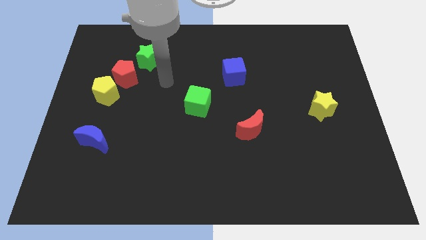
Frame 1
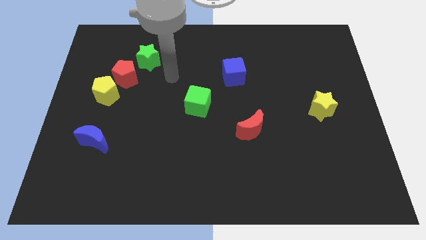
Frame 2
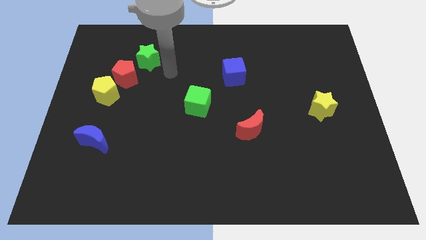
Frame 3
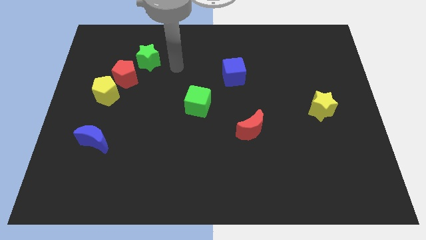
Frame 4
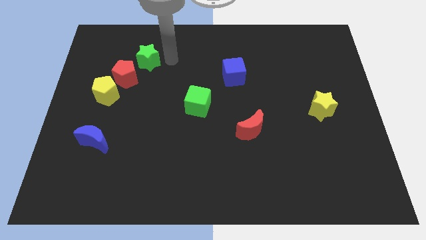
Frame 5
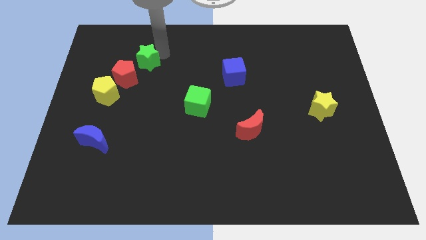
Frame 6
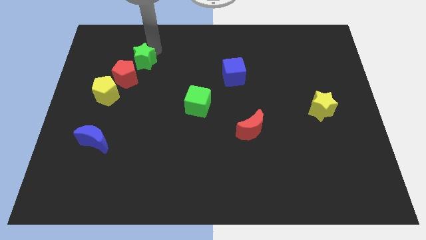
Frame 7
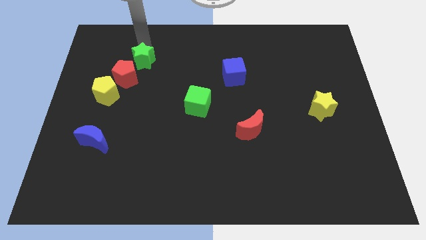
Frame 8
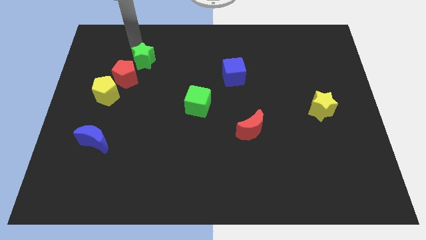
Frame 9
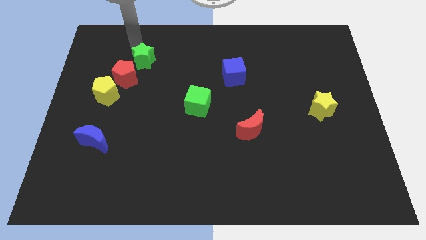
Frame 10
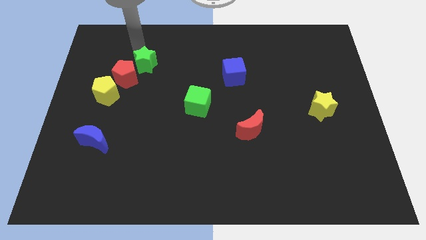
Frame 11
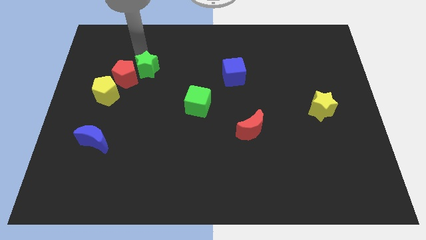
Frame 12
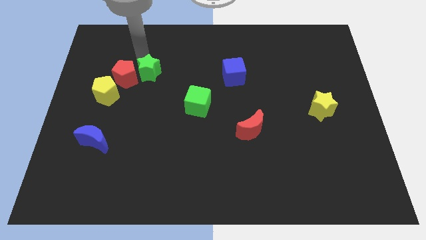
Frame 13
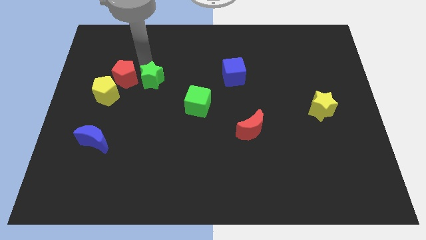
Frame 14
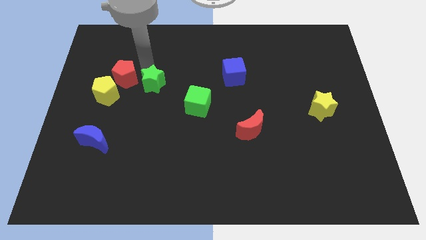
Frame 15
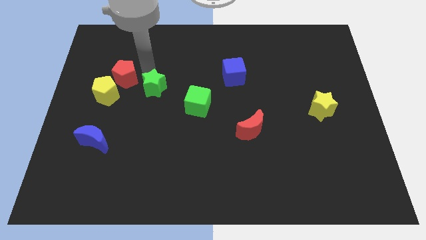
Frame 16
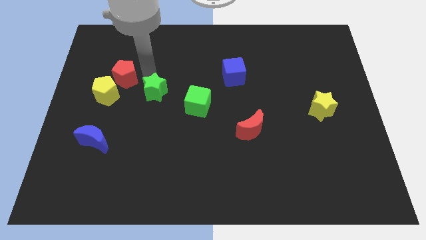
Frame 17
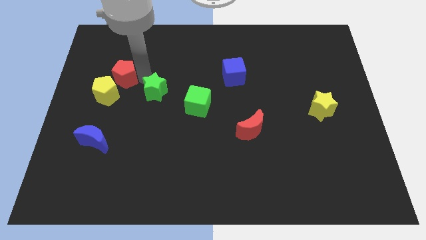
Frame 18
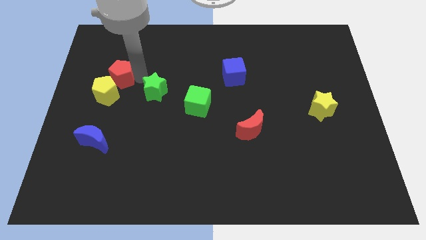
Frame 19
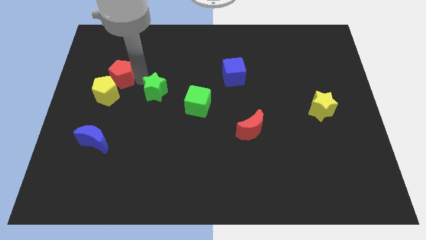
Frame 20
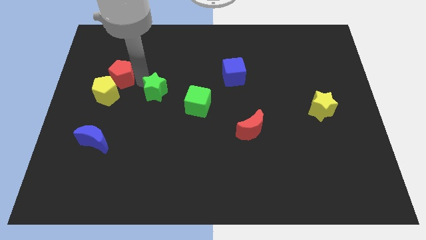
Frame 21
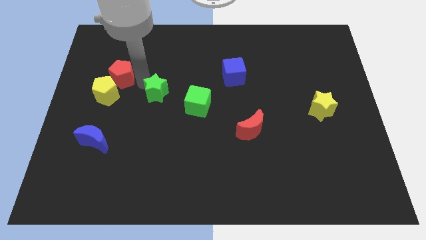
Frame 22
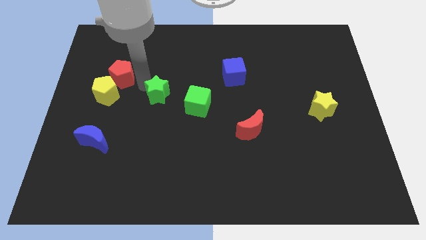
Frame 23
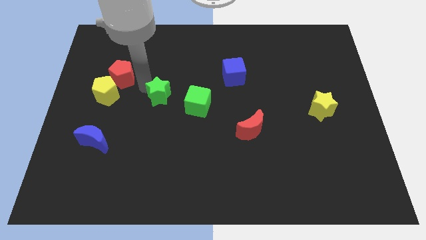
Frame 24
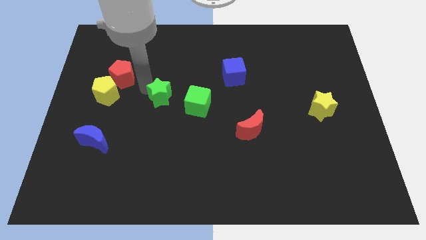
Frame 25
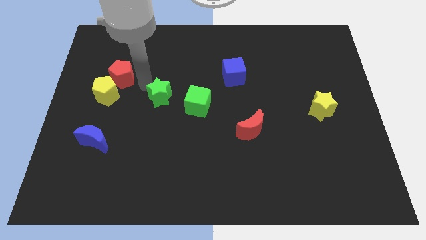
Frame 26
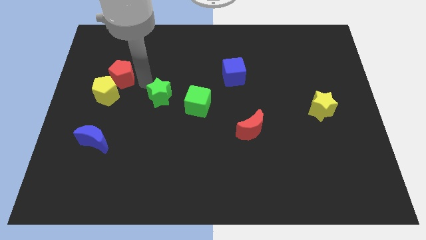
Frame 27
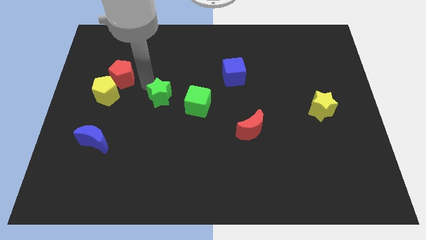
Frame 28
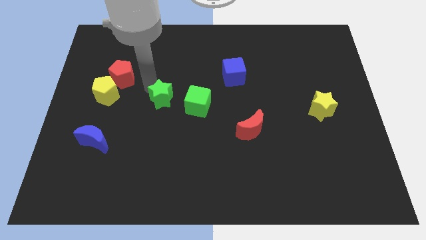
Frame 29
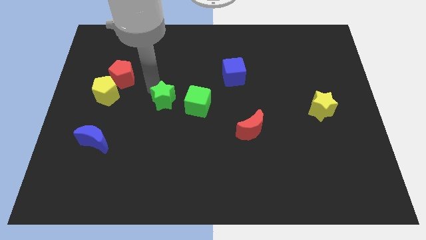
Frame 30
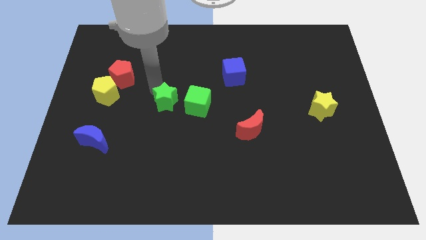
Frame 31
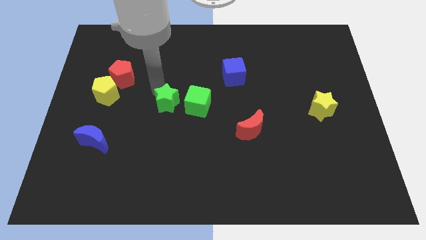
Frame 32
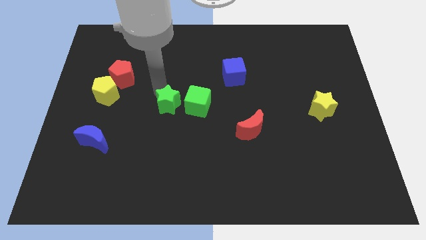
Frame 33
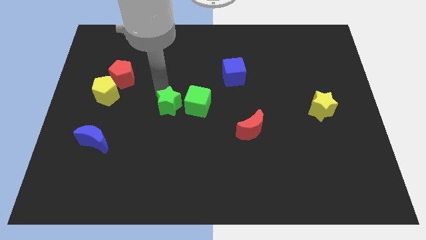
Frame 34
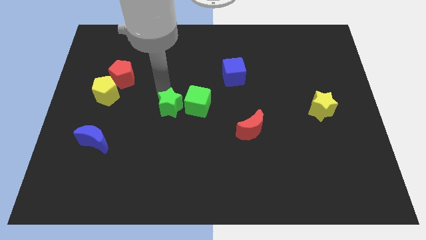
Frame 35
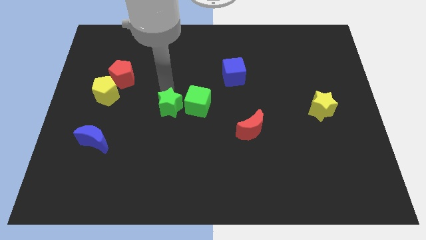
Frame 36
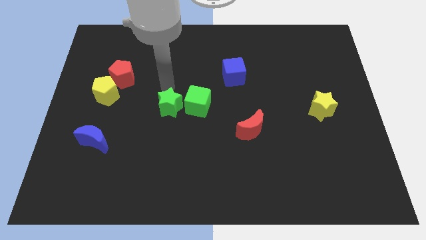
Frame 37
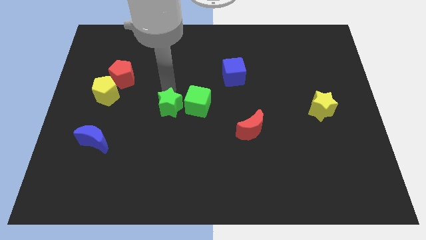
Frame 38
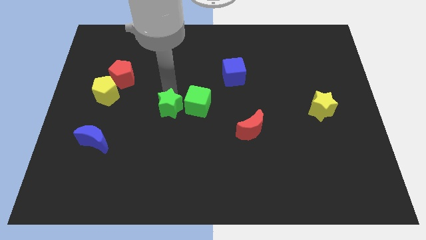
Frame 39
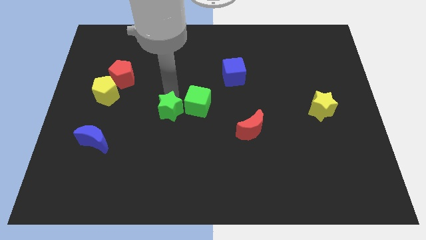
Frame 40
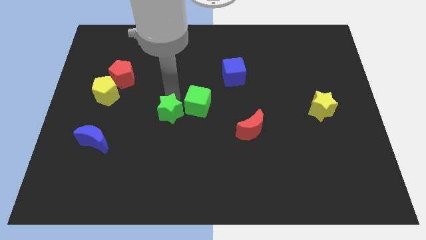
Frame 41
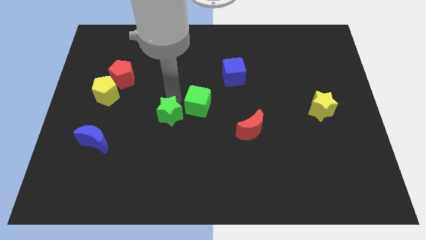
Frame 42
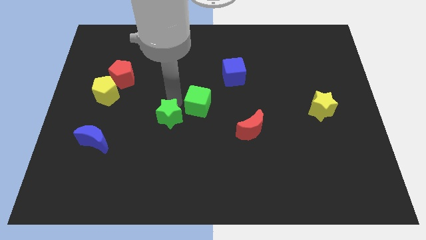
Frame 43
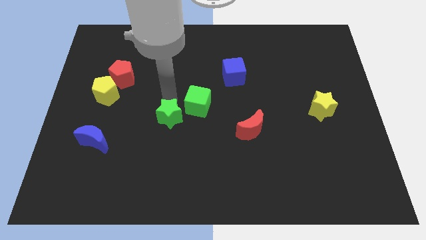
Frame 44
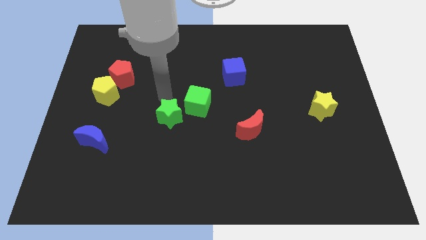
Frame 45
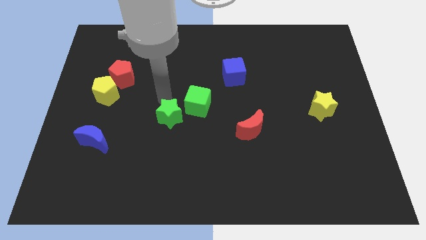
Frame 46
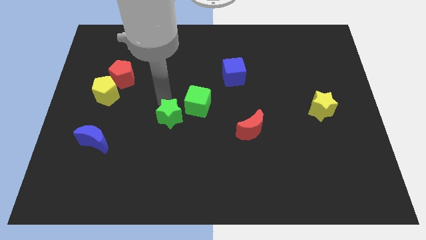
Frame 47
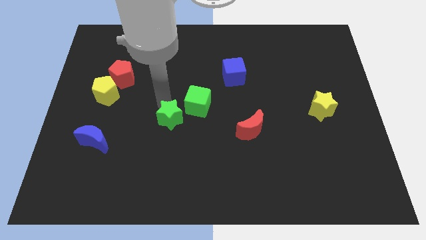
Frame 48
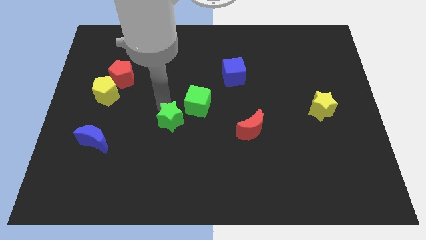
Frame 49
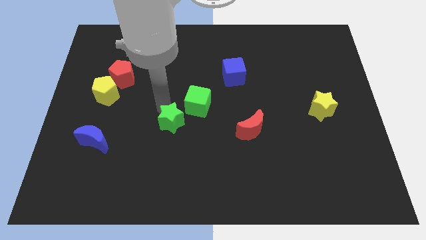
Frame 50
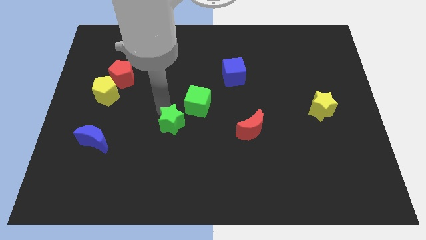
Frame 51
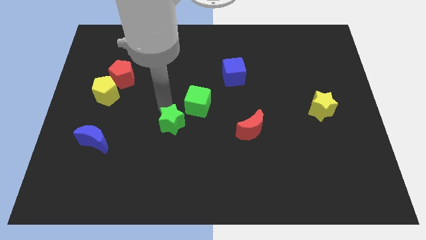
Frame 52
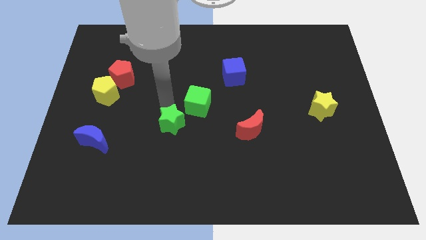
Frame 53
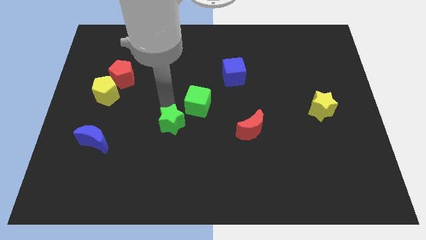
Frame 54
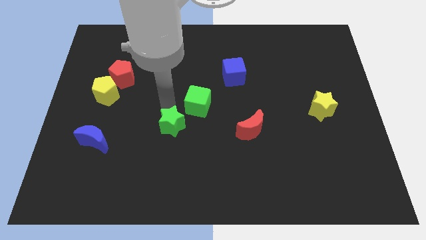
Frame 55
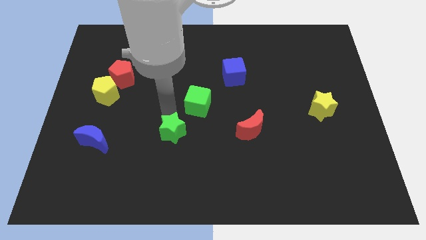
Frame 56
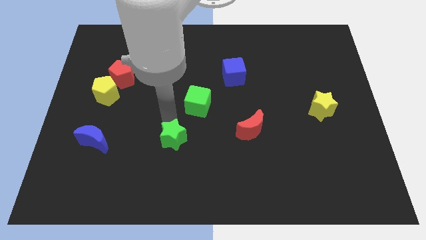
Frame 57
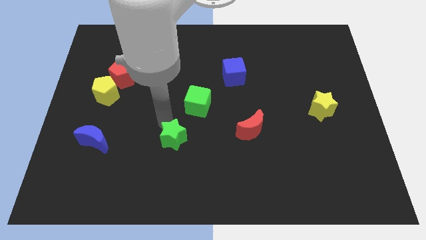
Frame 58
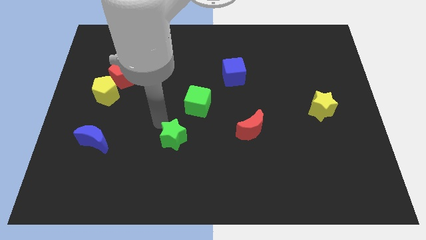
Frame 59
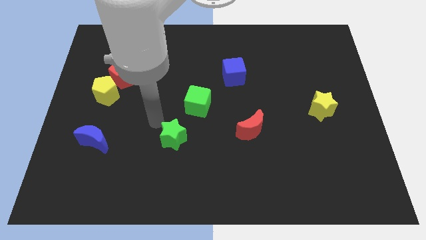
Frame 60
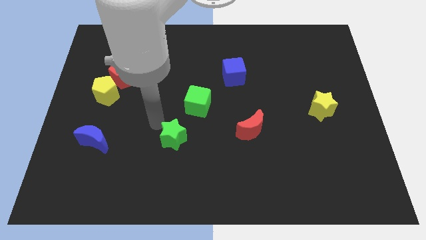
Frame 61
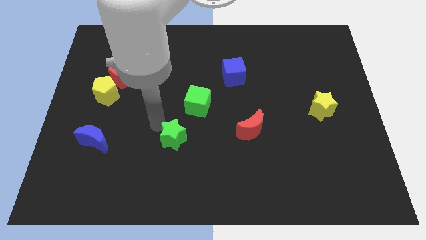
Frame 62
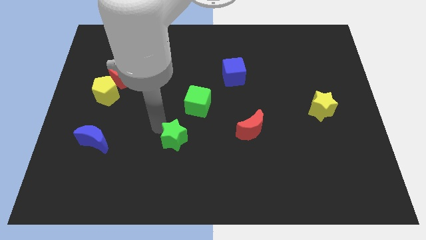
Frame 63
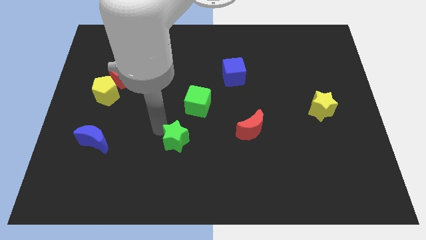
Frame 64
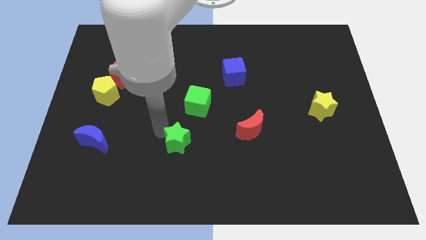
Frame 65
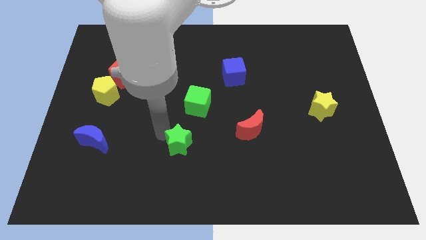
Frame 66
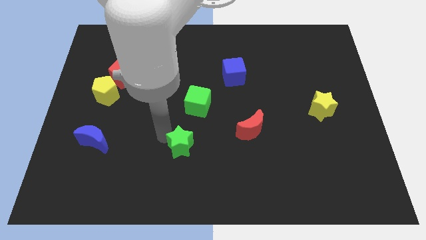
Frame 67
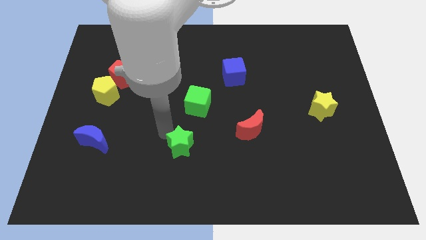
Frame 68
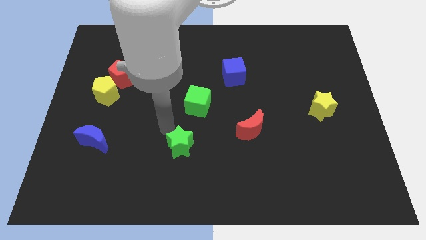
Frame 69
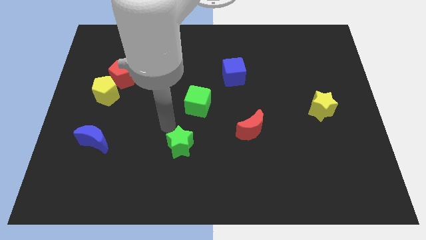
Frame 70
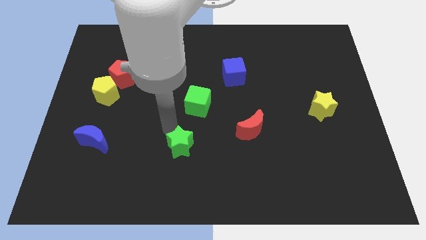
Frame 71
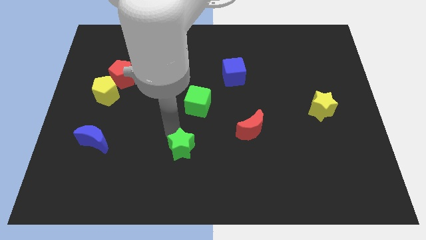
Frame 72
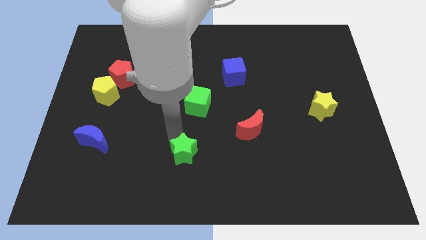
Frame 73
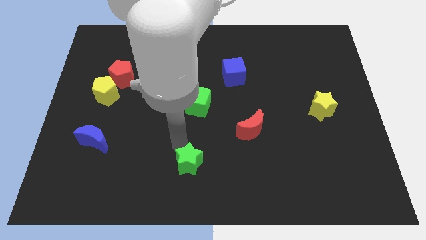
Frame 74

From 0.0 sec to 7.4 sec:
put the green star to the bottom side
